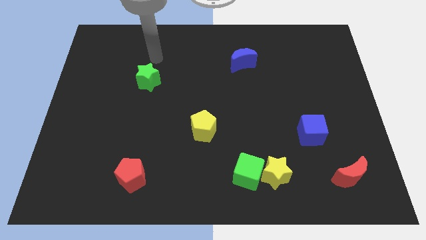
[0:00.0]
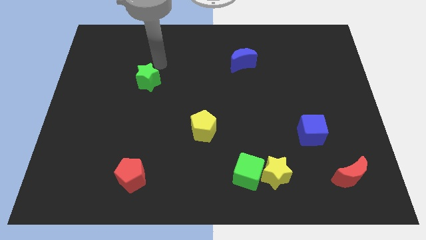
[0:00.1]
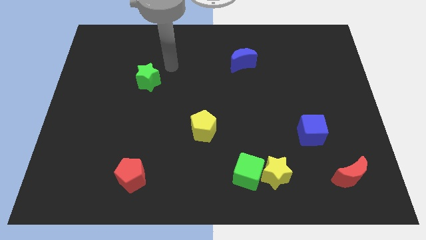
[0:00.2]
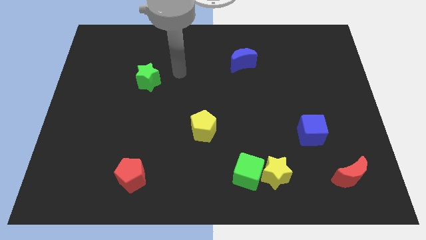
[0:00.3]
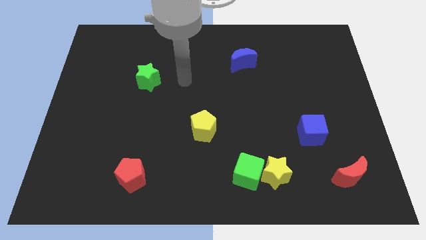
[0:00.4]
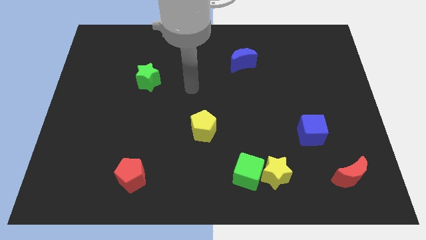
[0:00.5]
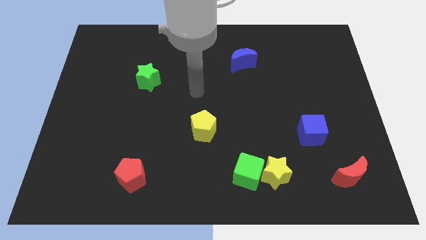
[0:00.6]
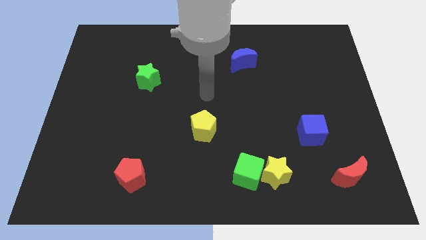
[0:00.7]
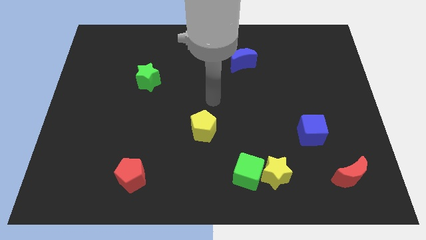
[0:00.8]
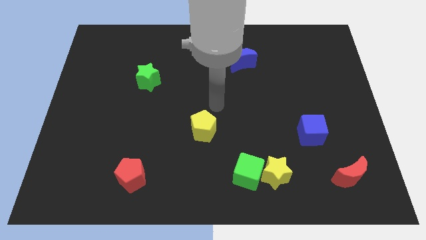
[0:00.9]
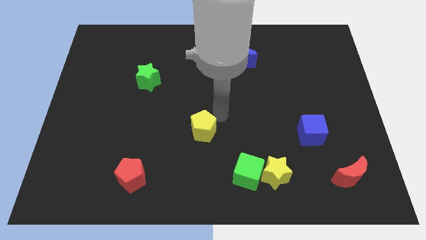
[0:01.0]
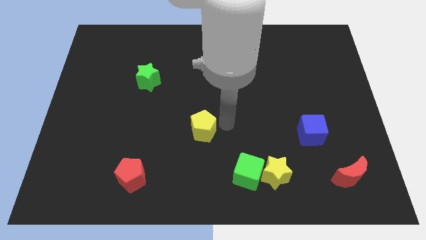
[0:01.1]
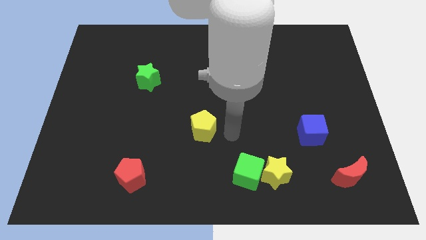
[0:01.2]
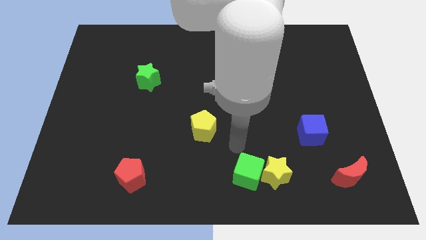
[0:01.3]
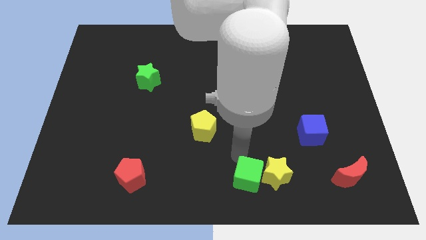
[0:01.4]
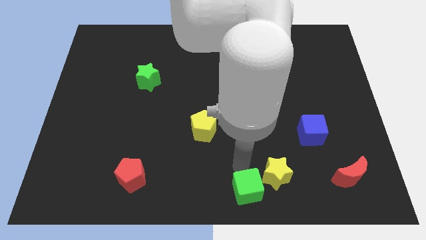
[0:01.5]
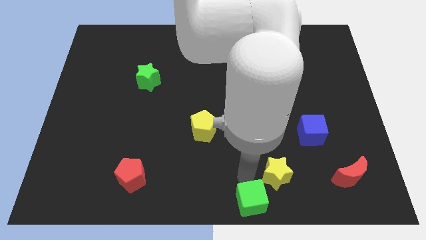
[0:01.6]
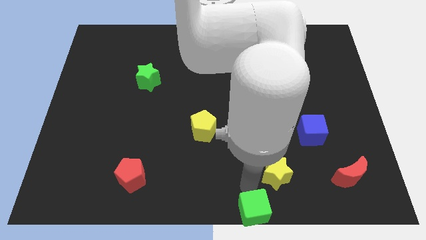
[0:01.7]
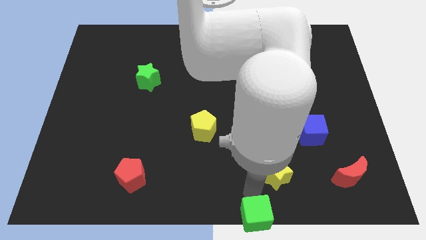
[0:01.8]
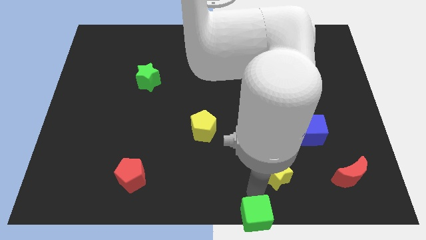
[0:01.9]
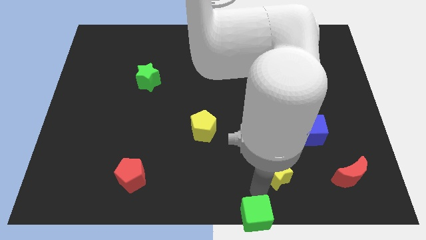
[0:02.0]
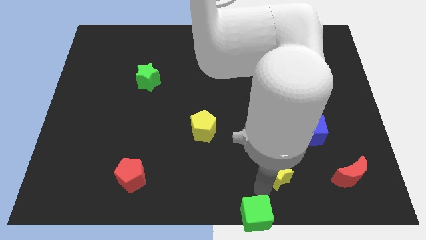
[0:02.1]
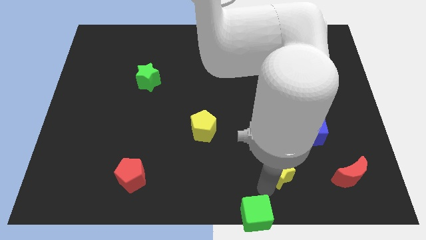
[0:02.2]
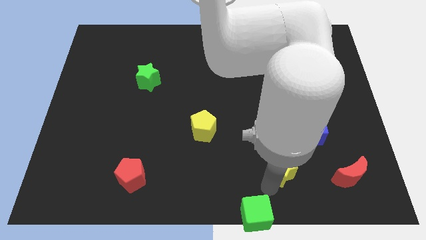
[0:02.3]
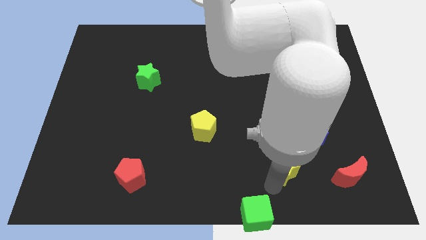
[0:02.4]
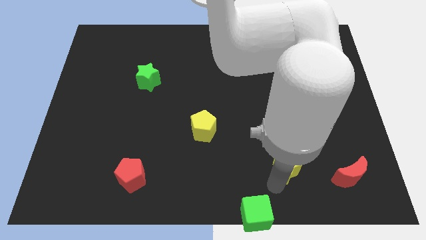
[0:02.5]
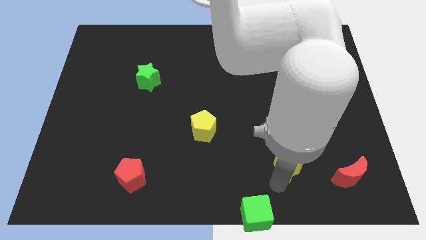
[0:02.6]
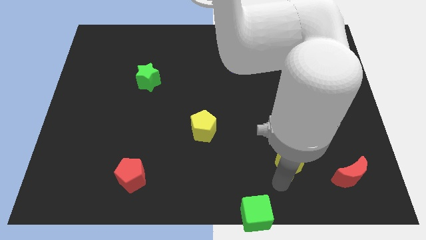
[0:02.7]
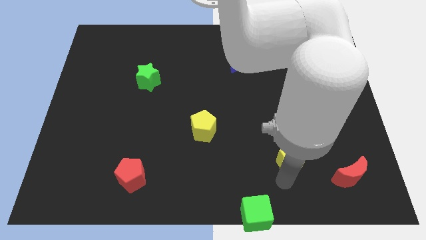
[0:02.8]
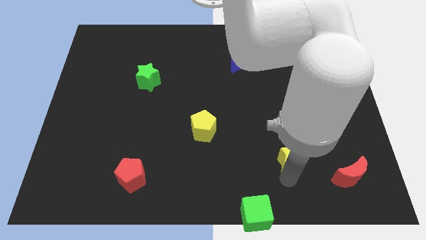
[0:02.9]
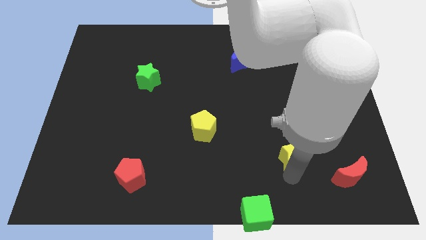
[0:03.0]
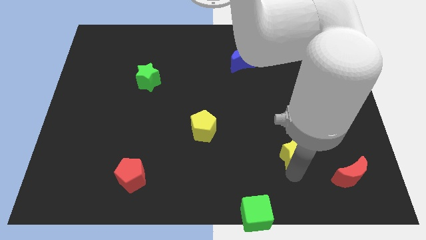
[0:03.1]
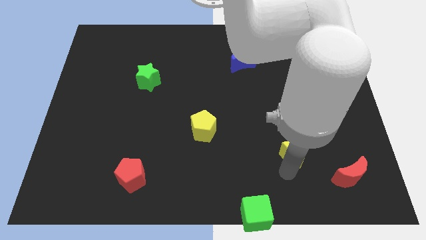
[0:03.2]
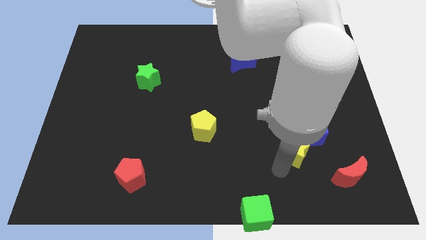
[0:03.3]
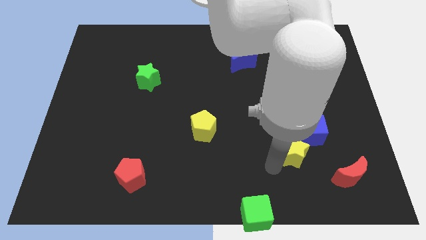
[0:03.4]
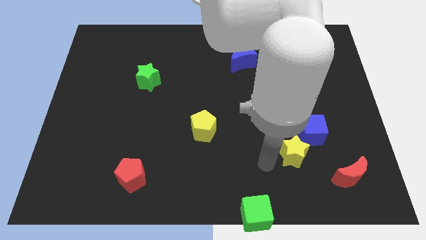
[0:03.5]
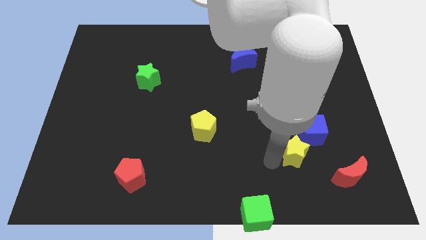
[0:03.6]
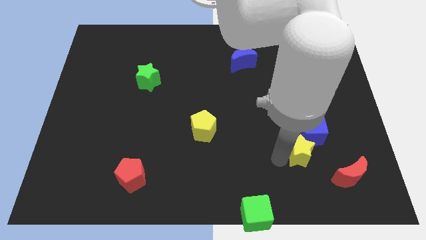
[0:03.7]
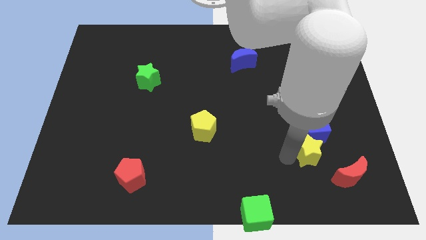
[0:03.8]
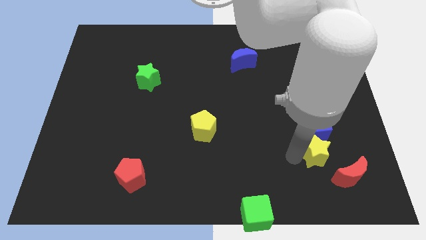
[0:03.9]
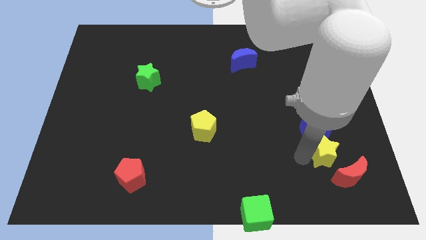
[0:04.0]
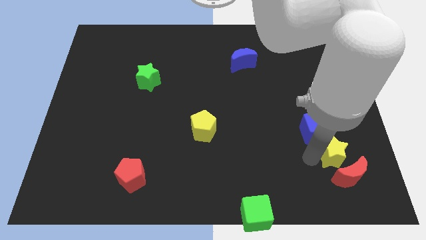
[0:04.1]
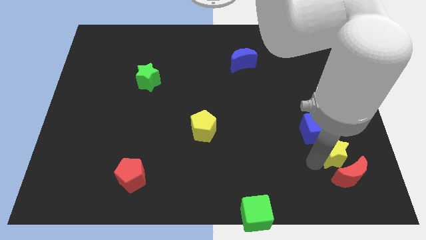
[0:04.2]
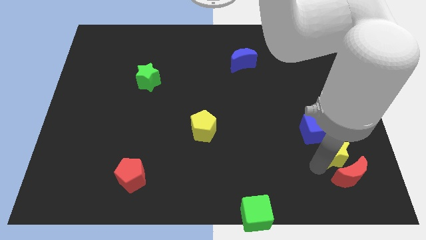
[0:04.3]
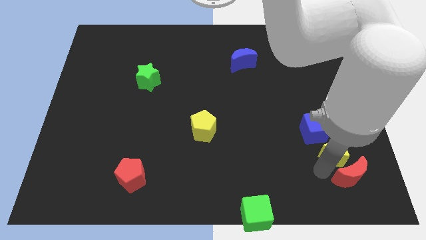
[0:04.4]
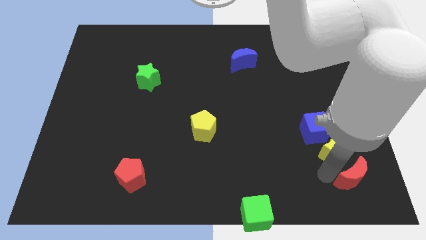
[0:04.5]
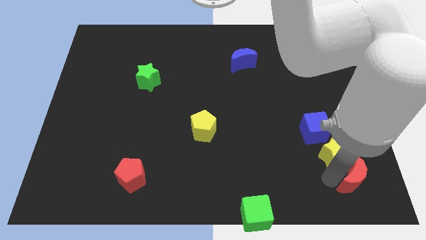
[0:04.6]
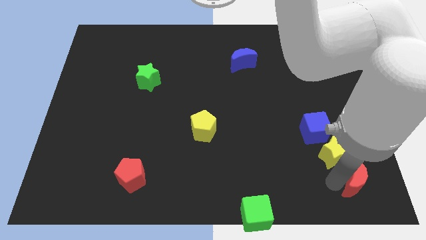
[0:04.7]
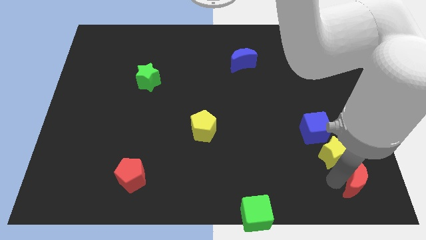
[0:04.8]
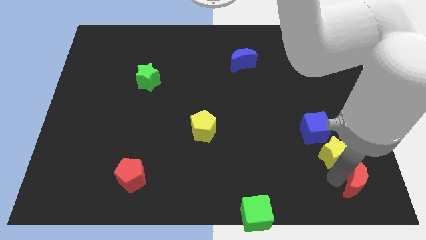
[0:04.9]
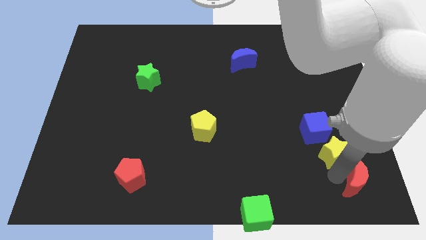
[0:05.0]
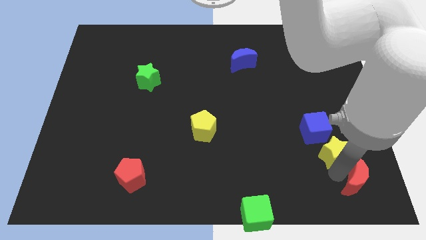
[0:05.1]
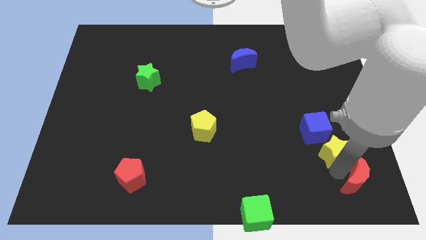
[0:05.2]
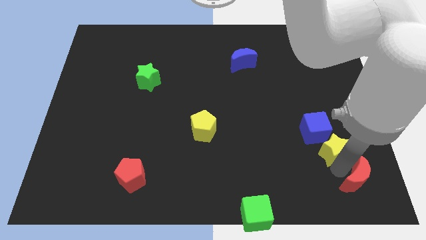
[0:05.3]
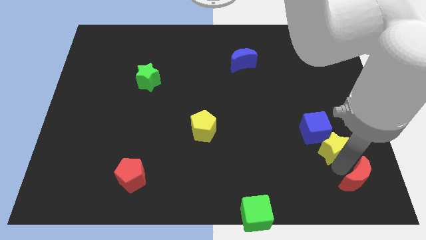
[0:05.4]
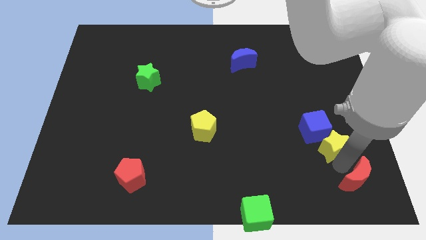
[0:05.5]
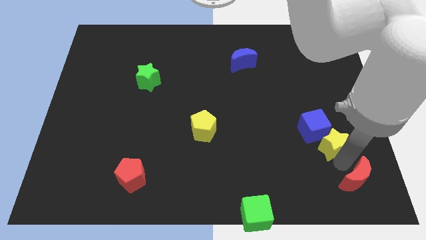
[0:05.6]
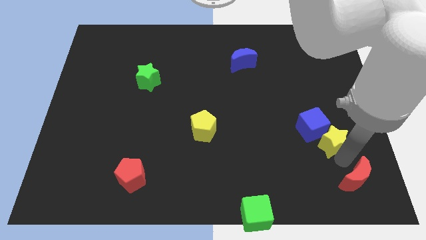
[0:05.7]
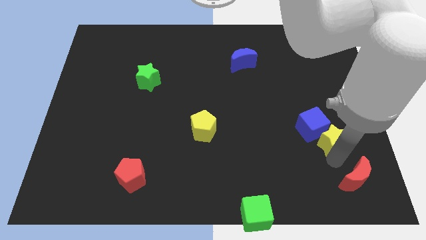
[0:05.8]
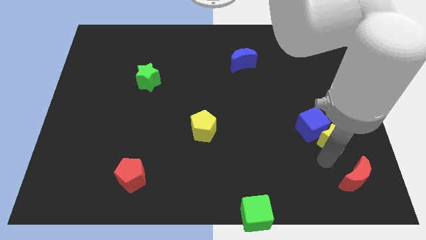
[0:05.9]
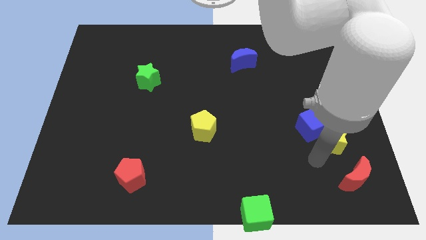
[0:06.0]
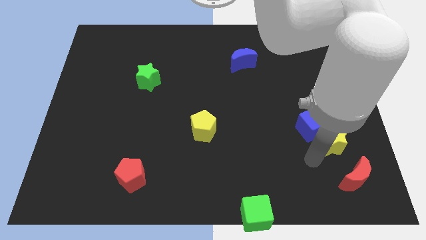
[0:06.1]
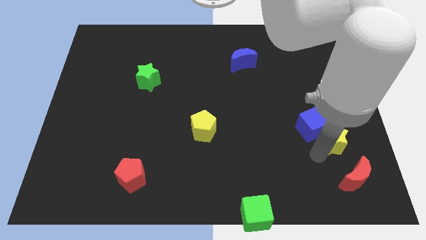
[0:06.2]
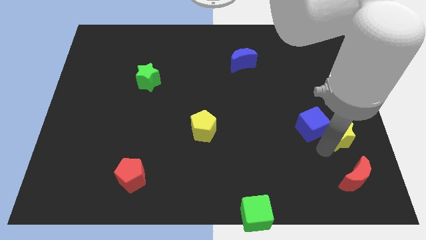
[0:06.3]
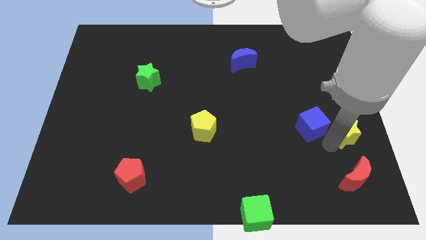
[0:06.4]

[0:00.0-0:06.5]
put the yellow star to the right side
